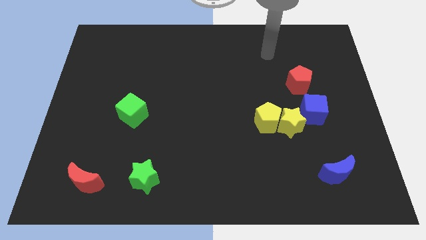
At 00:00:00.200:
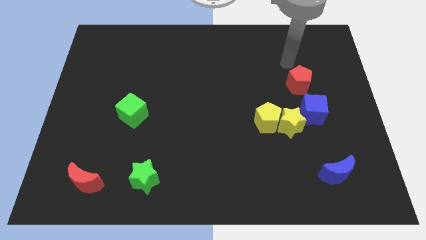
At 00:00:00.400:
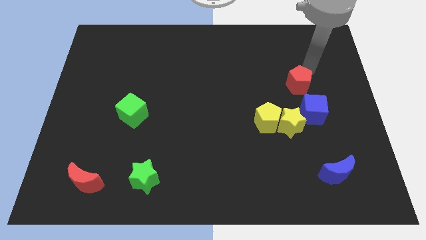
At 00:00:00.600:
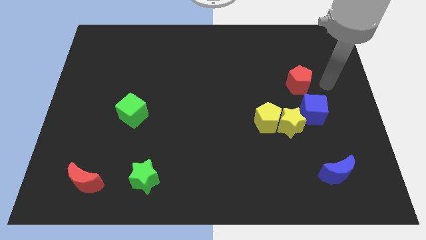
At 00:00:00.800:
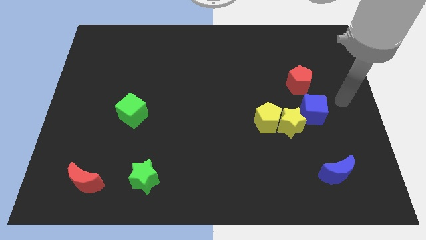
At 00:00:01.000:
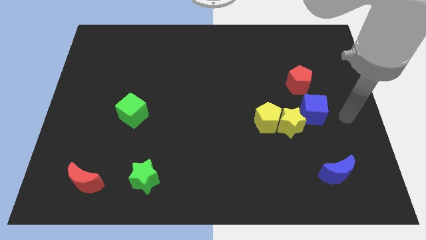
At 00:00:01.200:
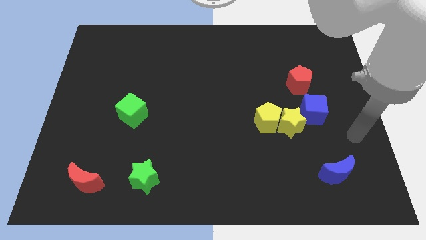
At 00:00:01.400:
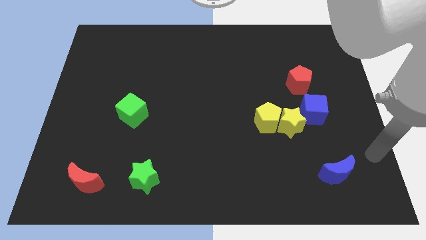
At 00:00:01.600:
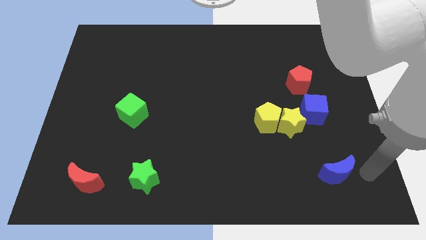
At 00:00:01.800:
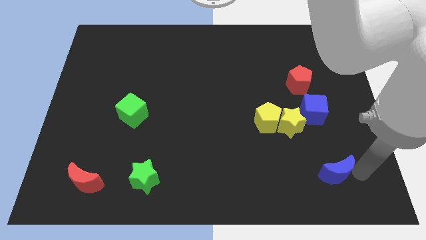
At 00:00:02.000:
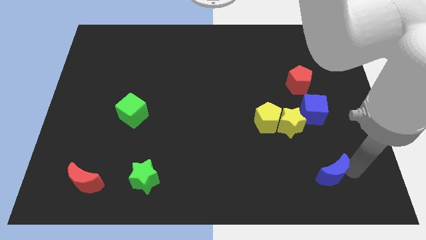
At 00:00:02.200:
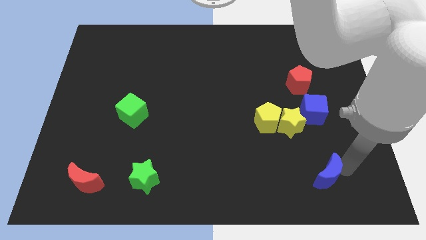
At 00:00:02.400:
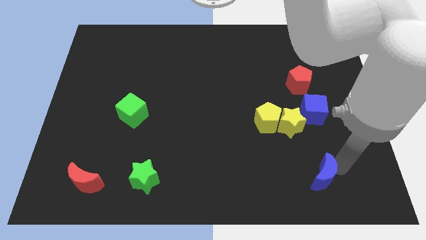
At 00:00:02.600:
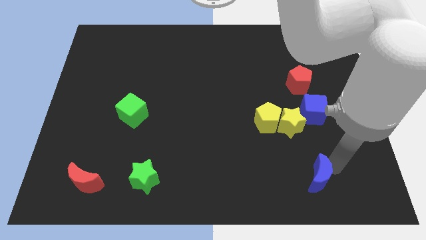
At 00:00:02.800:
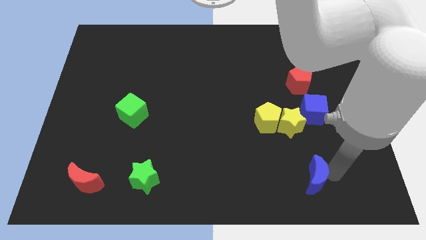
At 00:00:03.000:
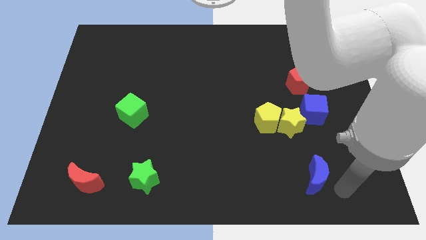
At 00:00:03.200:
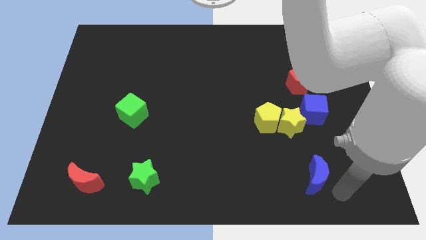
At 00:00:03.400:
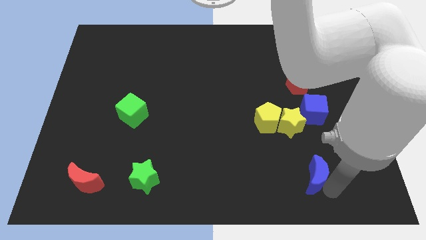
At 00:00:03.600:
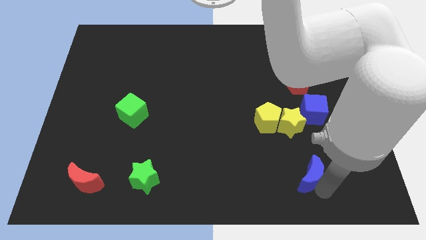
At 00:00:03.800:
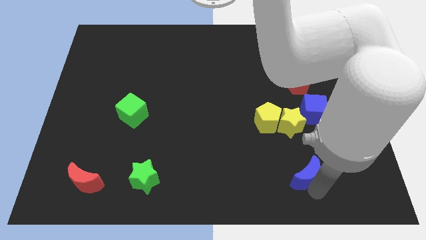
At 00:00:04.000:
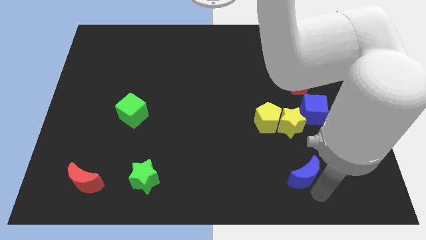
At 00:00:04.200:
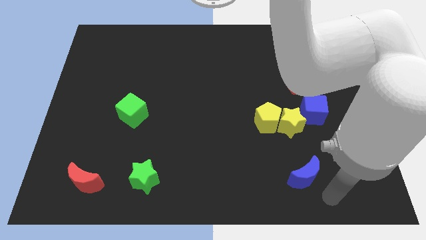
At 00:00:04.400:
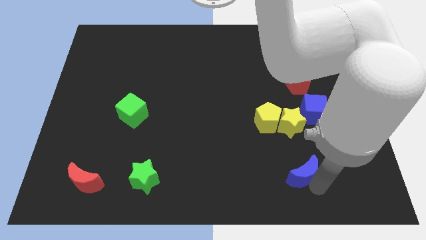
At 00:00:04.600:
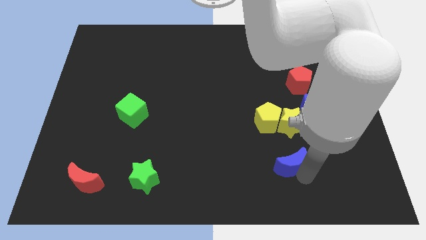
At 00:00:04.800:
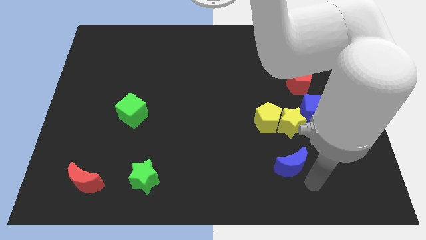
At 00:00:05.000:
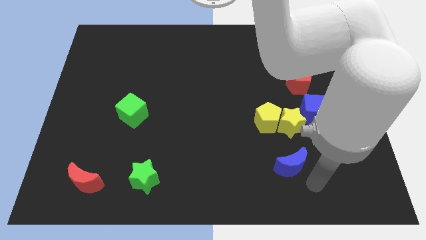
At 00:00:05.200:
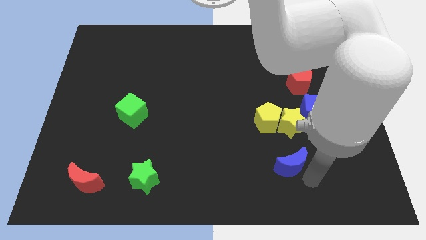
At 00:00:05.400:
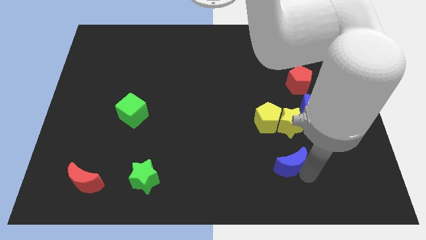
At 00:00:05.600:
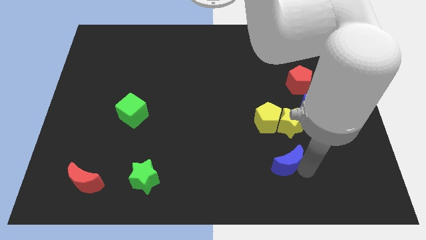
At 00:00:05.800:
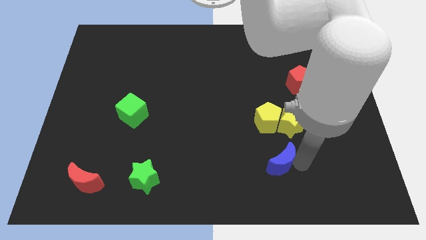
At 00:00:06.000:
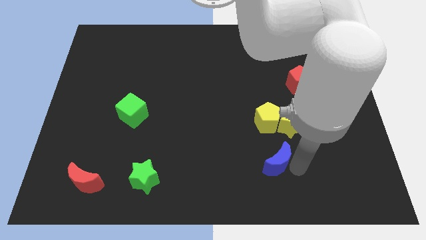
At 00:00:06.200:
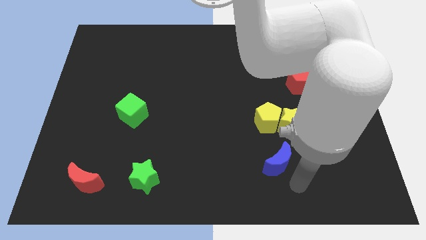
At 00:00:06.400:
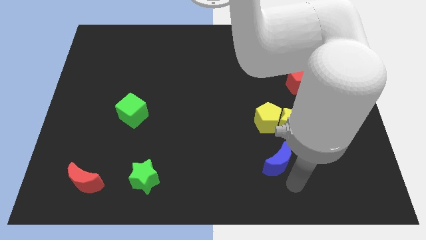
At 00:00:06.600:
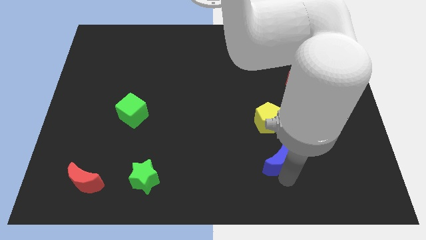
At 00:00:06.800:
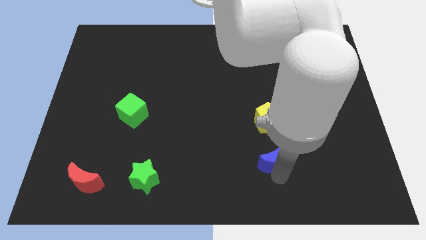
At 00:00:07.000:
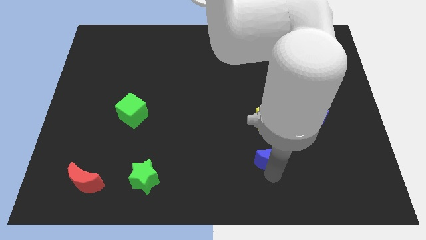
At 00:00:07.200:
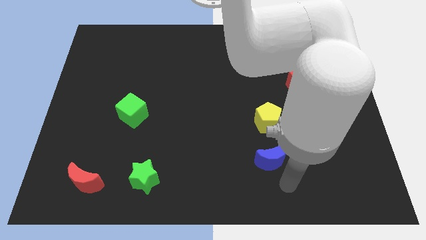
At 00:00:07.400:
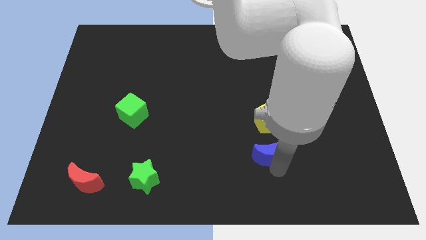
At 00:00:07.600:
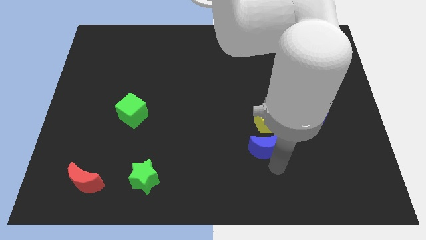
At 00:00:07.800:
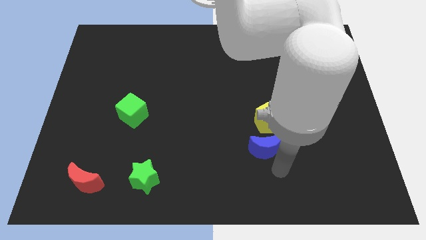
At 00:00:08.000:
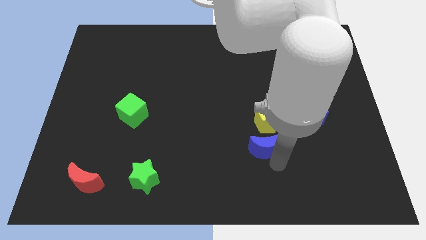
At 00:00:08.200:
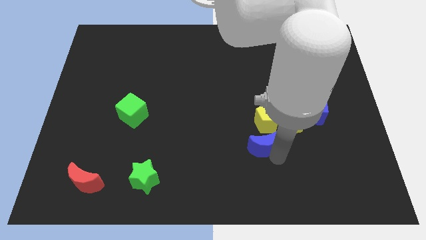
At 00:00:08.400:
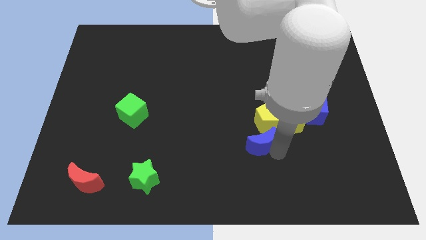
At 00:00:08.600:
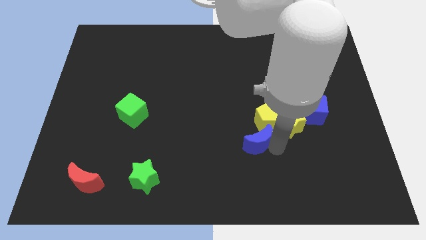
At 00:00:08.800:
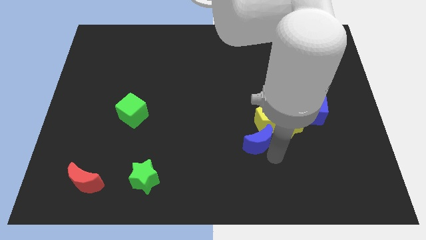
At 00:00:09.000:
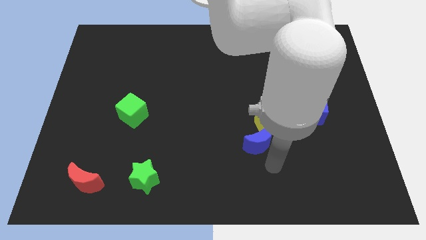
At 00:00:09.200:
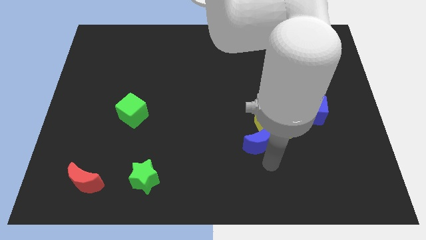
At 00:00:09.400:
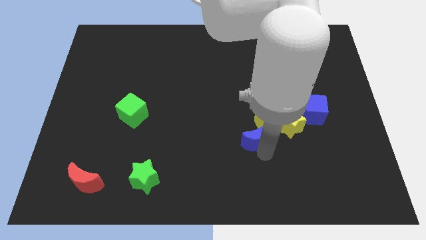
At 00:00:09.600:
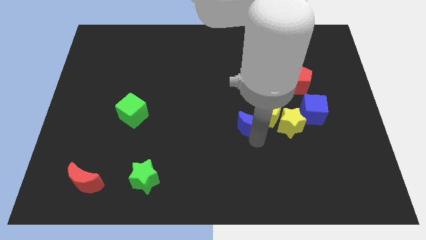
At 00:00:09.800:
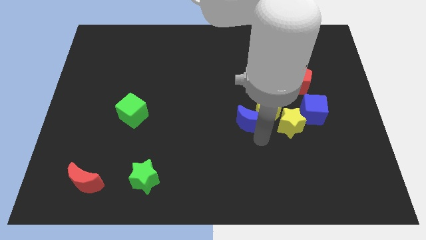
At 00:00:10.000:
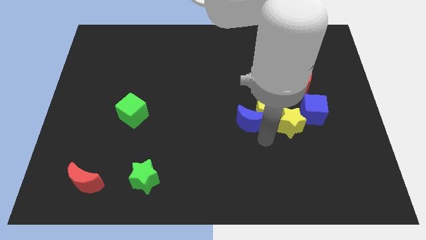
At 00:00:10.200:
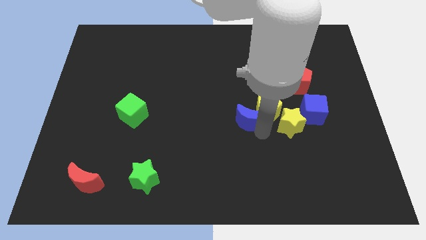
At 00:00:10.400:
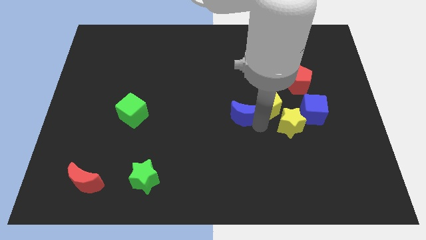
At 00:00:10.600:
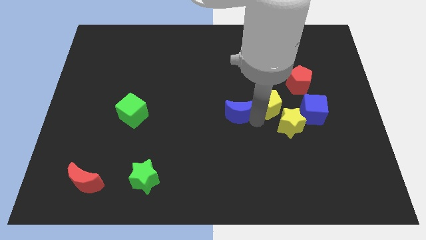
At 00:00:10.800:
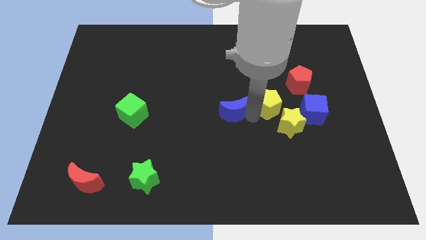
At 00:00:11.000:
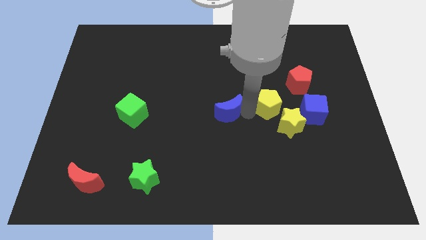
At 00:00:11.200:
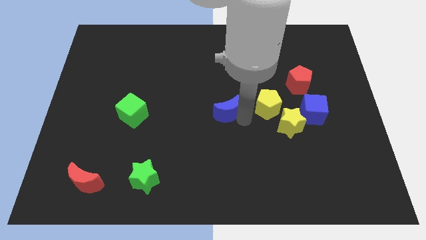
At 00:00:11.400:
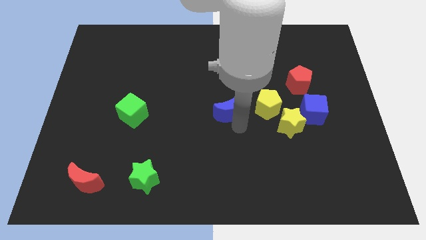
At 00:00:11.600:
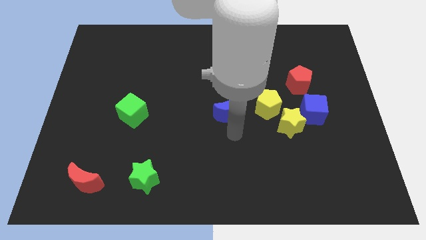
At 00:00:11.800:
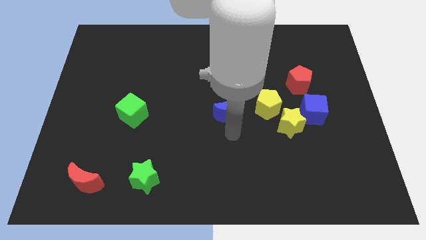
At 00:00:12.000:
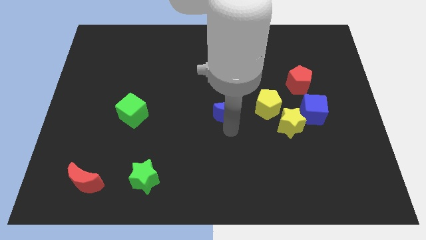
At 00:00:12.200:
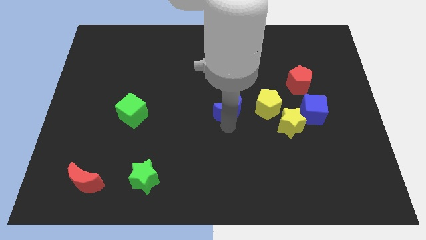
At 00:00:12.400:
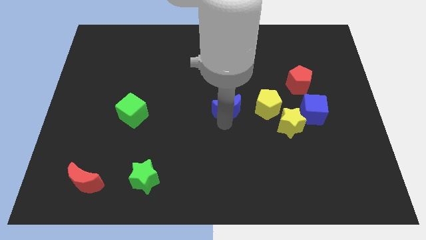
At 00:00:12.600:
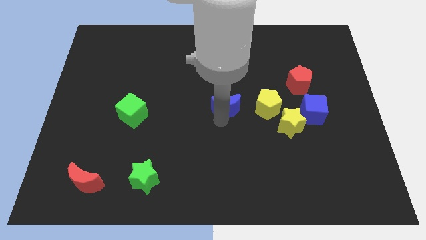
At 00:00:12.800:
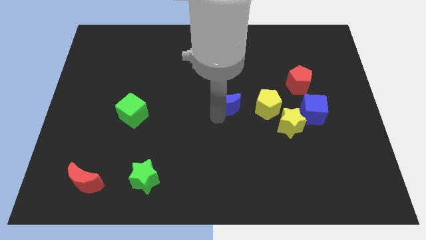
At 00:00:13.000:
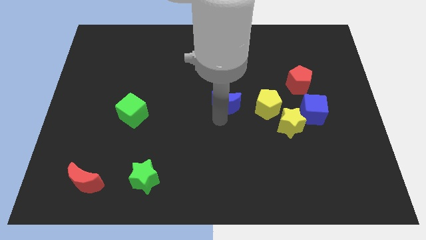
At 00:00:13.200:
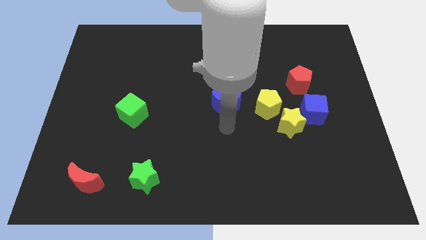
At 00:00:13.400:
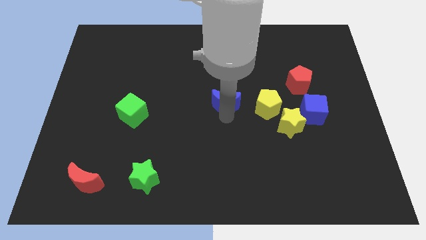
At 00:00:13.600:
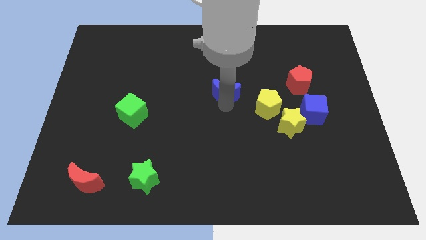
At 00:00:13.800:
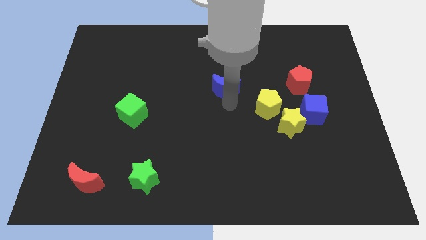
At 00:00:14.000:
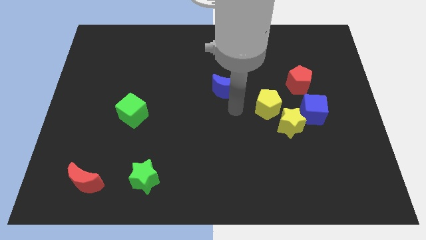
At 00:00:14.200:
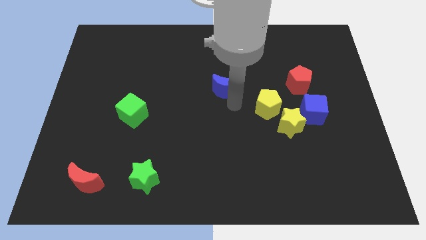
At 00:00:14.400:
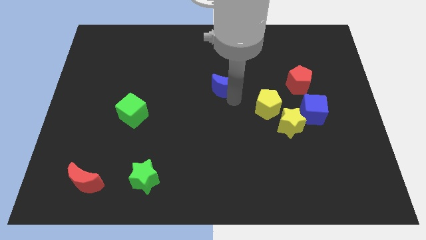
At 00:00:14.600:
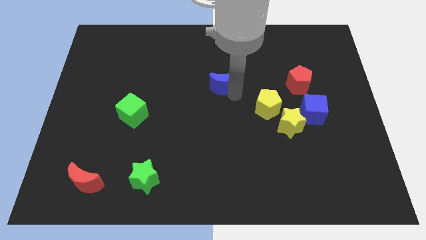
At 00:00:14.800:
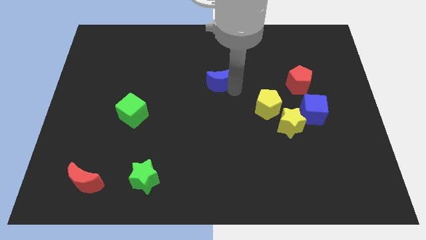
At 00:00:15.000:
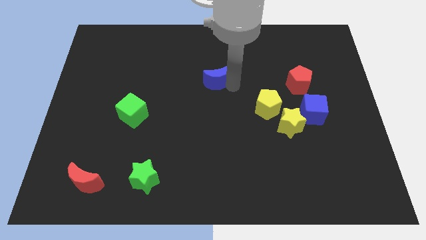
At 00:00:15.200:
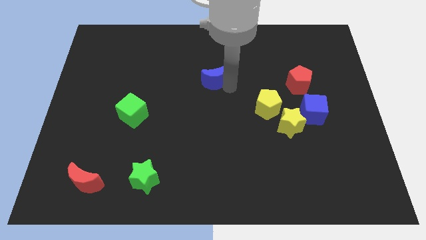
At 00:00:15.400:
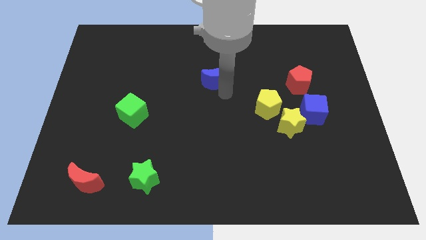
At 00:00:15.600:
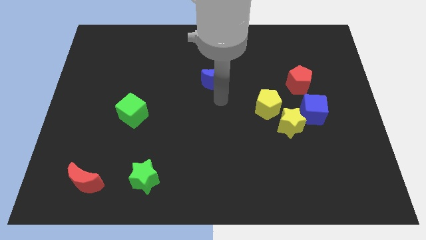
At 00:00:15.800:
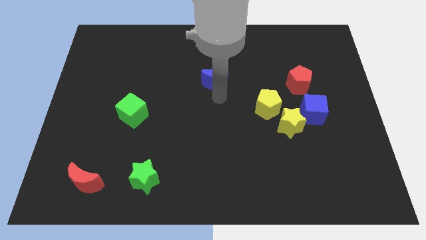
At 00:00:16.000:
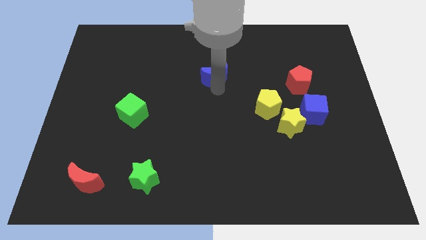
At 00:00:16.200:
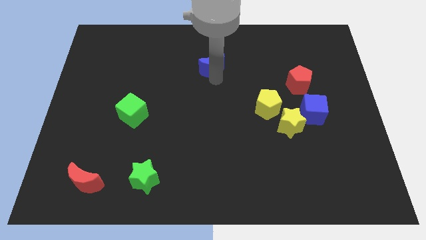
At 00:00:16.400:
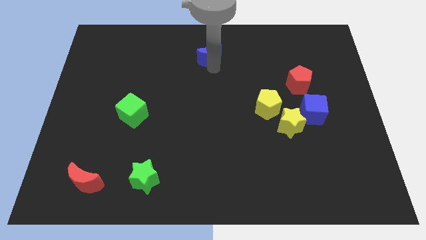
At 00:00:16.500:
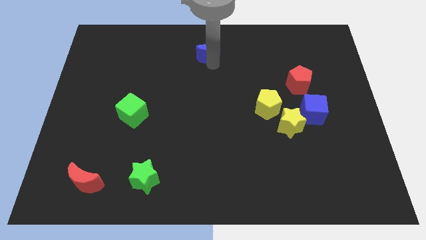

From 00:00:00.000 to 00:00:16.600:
put the blue moon to the top side
